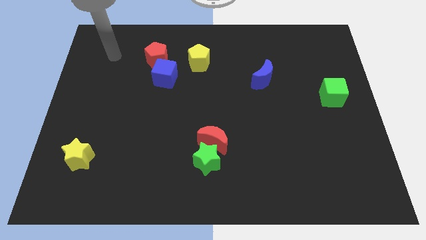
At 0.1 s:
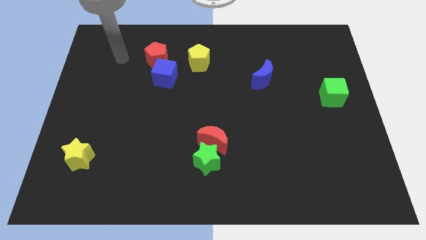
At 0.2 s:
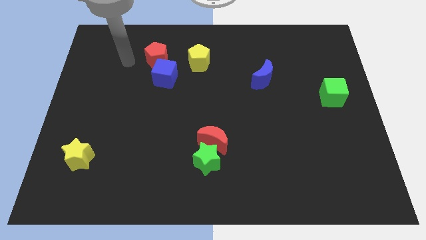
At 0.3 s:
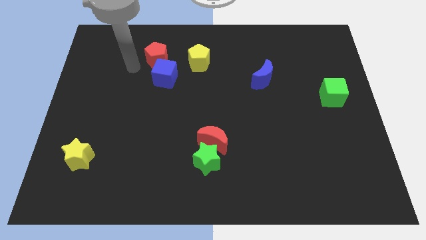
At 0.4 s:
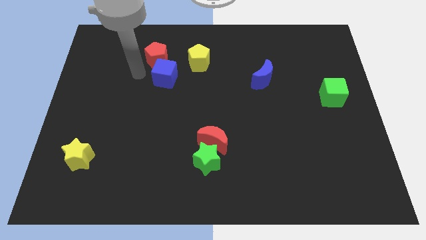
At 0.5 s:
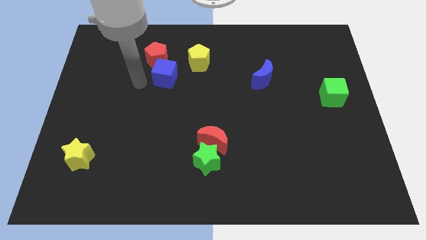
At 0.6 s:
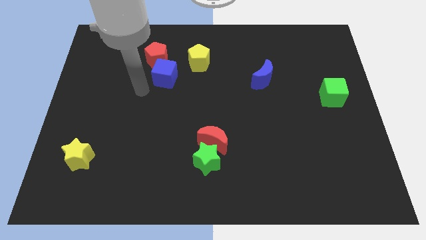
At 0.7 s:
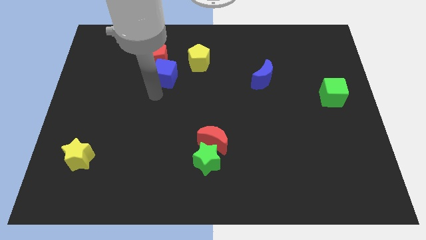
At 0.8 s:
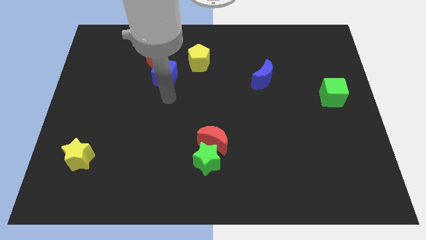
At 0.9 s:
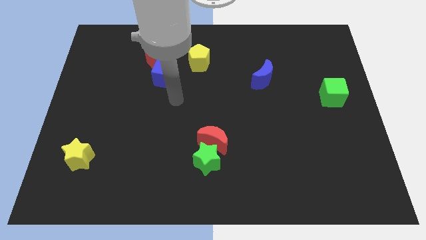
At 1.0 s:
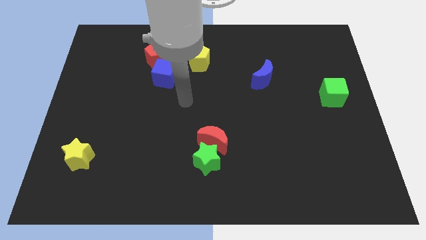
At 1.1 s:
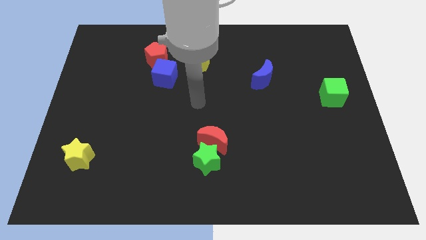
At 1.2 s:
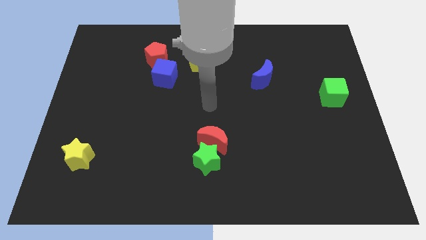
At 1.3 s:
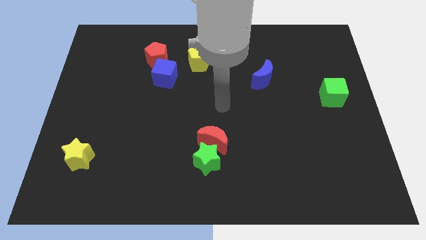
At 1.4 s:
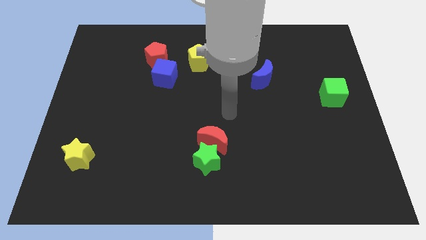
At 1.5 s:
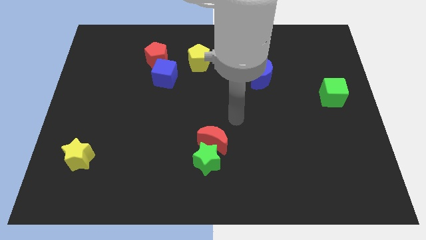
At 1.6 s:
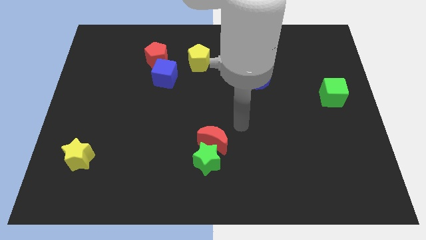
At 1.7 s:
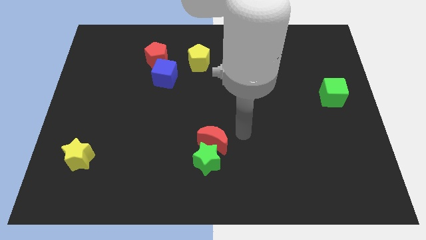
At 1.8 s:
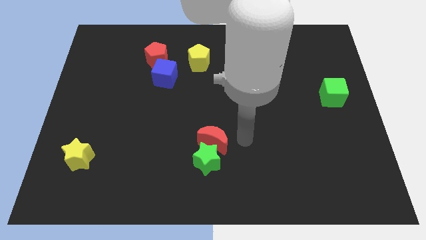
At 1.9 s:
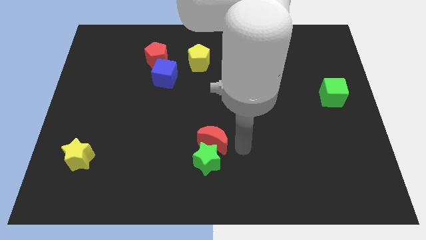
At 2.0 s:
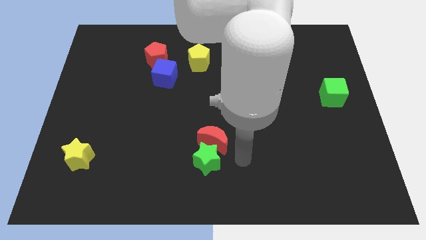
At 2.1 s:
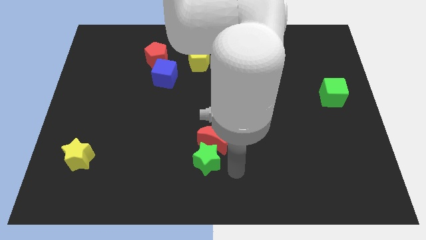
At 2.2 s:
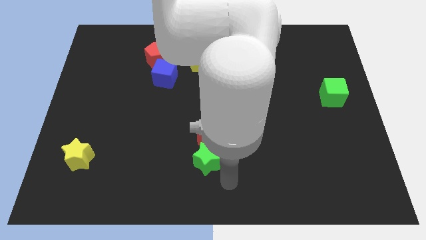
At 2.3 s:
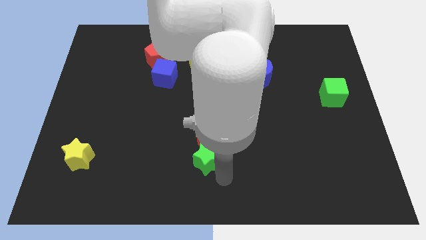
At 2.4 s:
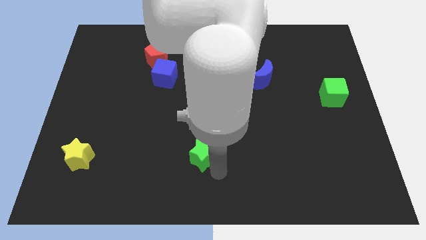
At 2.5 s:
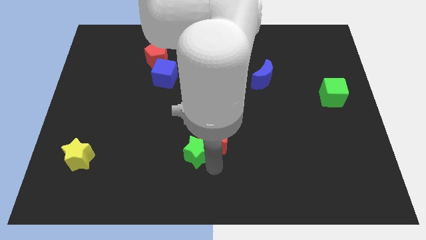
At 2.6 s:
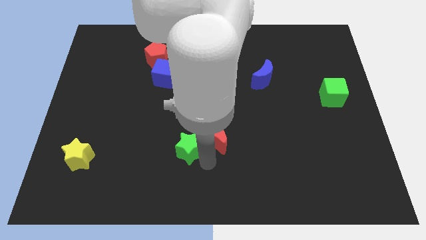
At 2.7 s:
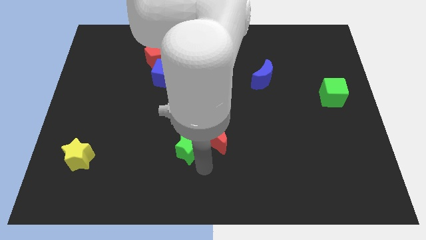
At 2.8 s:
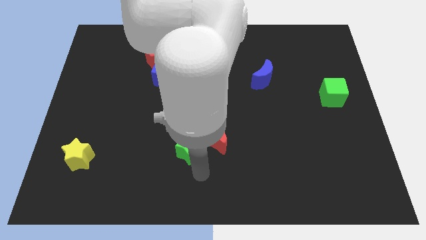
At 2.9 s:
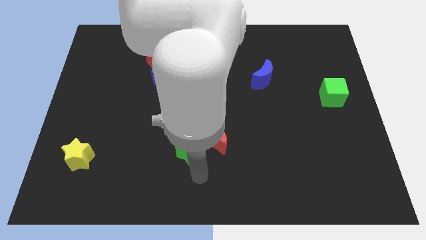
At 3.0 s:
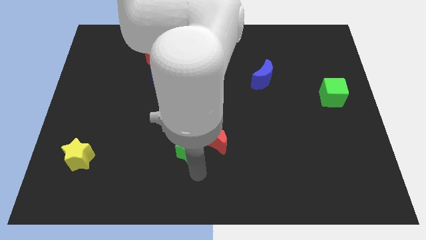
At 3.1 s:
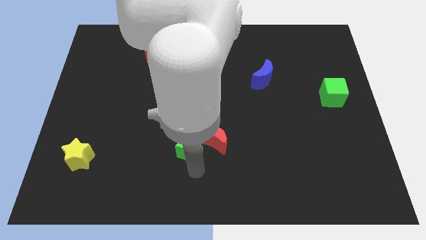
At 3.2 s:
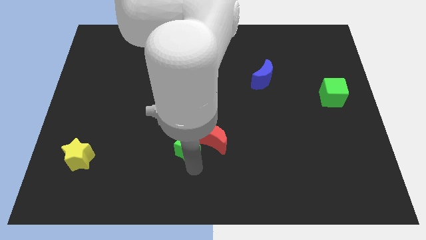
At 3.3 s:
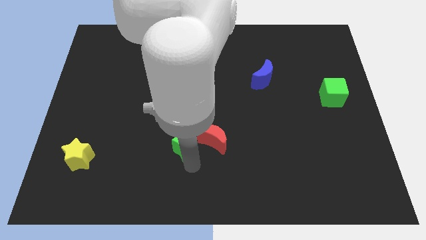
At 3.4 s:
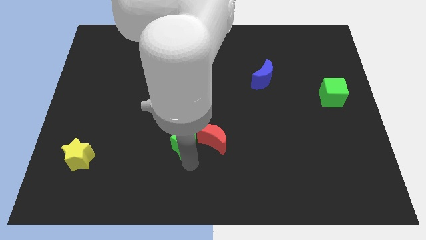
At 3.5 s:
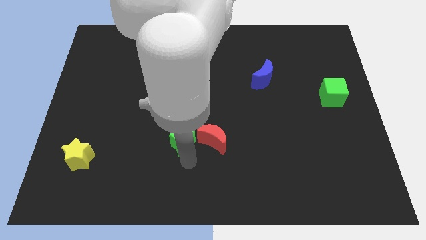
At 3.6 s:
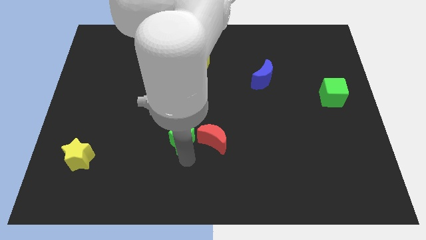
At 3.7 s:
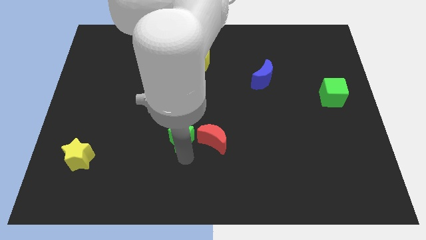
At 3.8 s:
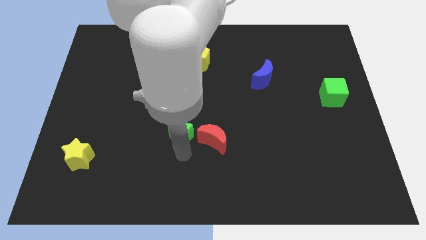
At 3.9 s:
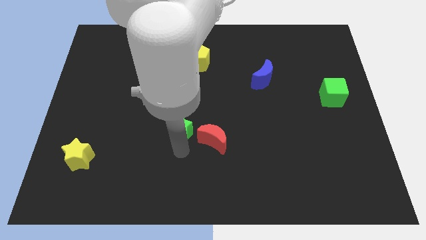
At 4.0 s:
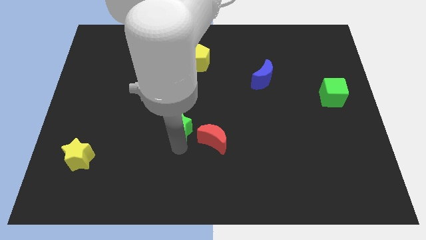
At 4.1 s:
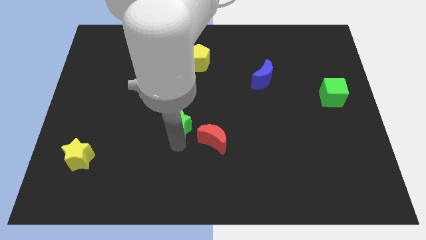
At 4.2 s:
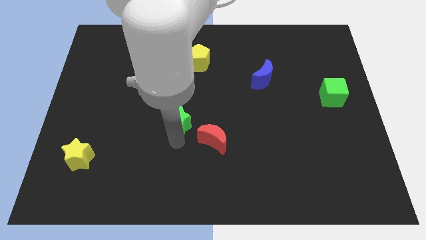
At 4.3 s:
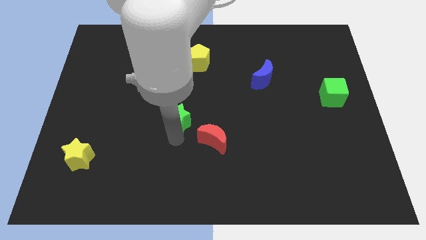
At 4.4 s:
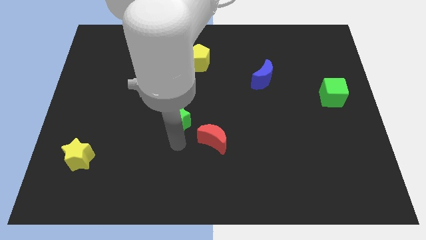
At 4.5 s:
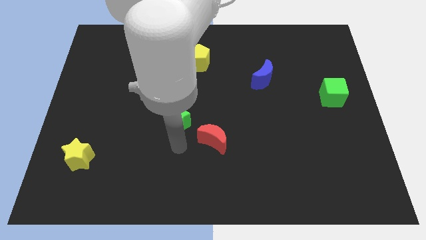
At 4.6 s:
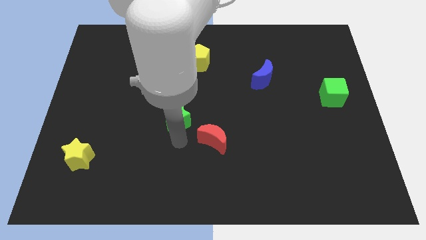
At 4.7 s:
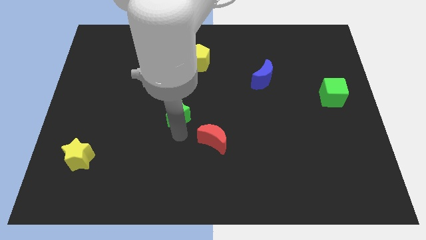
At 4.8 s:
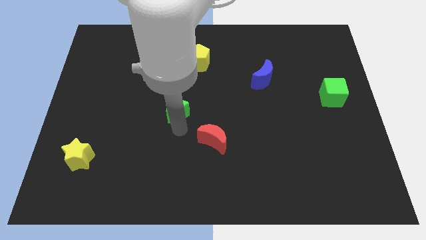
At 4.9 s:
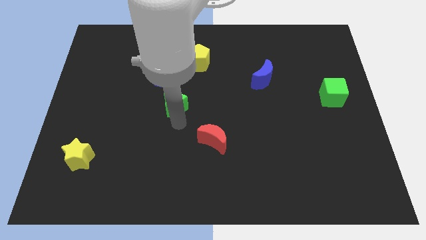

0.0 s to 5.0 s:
push the green star to the bottom right side of the blue cube

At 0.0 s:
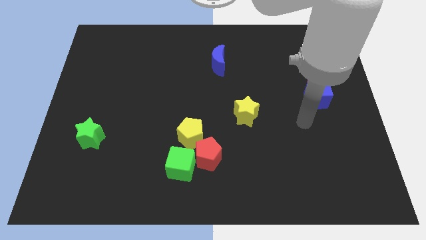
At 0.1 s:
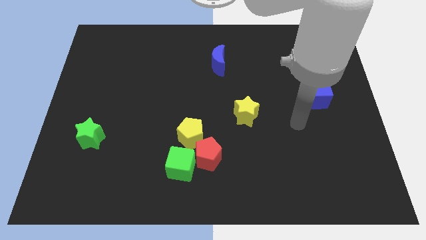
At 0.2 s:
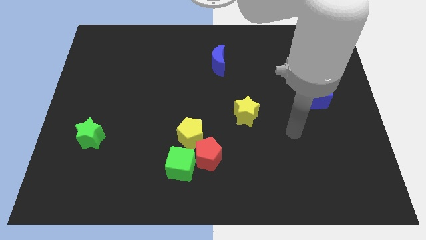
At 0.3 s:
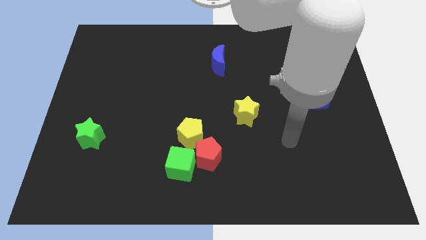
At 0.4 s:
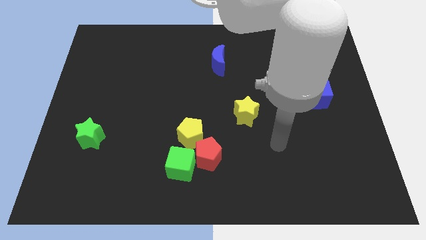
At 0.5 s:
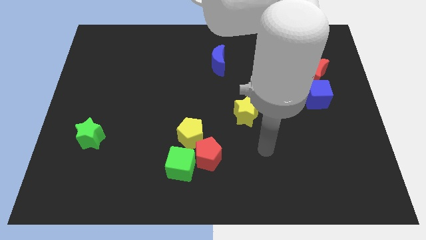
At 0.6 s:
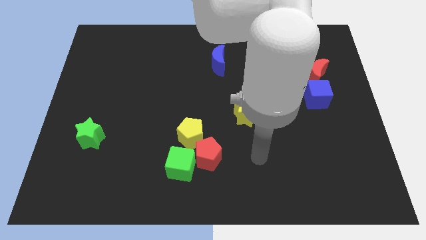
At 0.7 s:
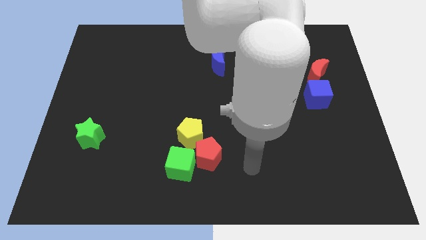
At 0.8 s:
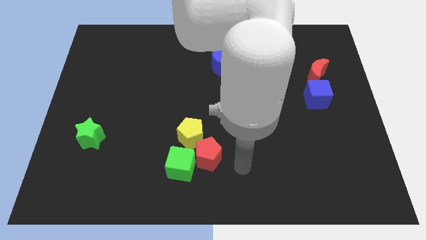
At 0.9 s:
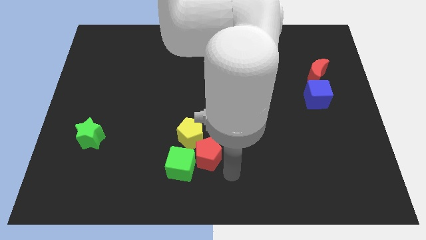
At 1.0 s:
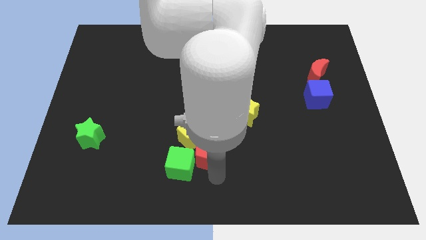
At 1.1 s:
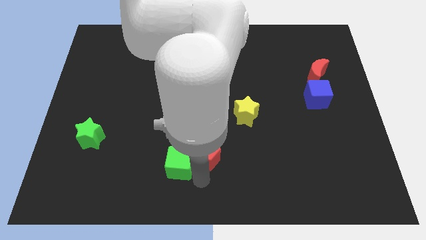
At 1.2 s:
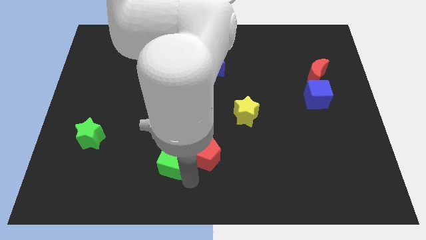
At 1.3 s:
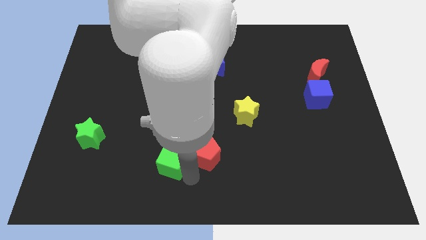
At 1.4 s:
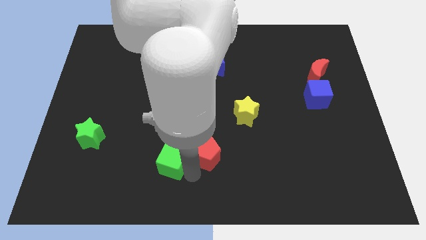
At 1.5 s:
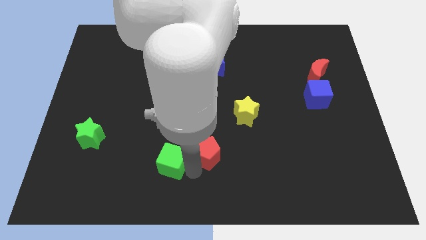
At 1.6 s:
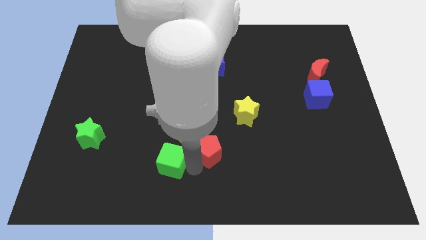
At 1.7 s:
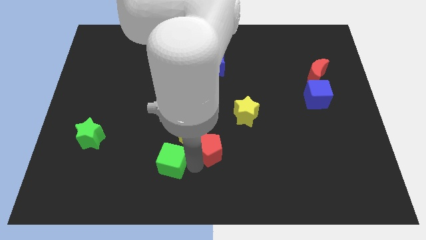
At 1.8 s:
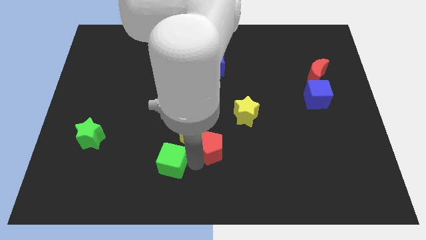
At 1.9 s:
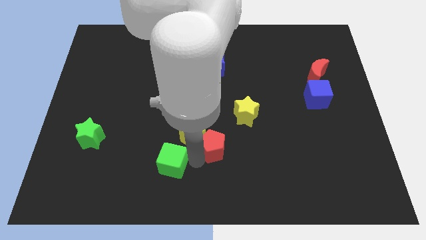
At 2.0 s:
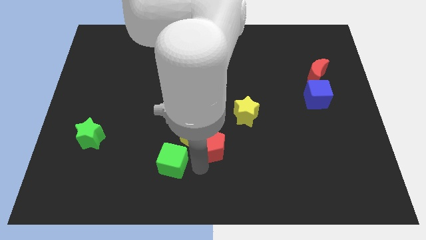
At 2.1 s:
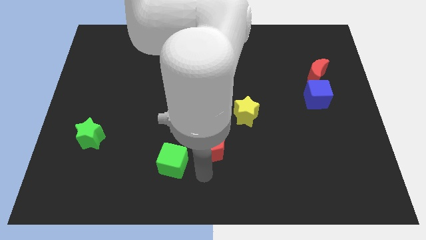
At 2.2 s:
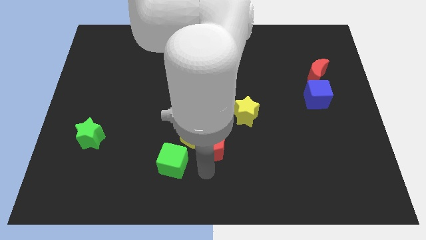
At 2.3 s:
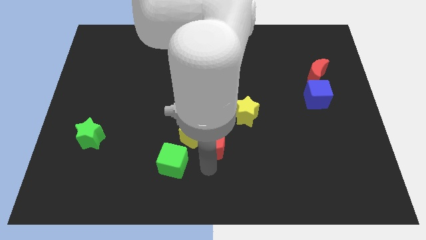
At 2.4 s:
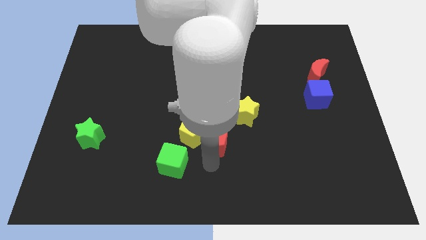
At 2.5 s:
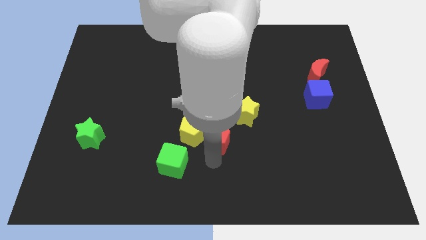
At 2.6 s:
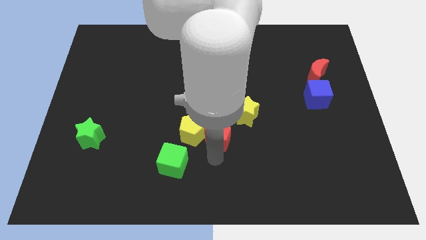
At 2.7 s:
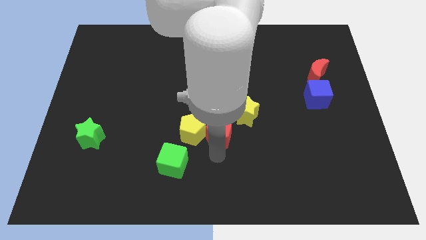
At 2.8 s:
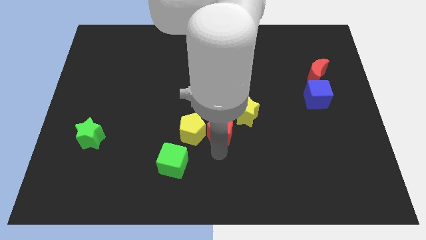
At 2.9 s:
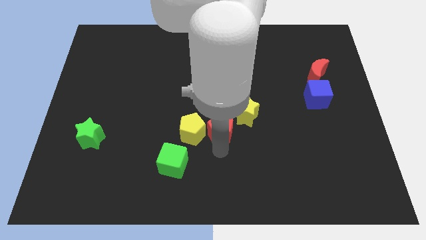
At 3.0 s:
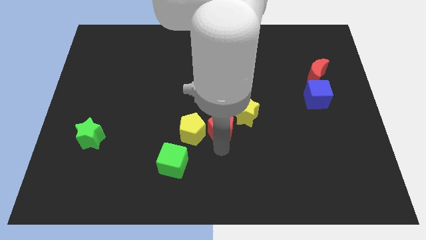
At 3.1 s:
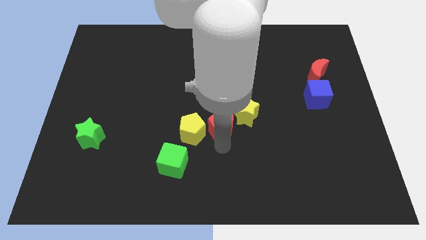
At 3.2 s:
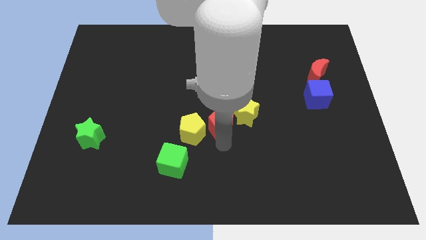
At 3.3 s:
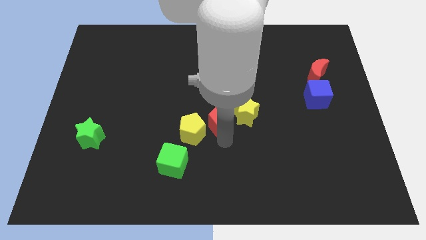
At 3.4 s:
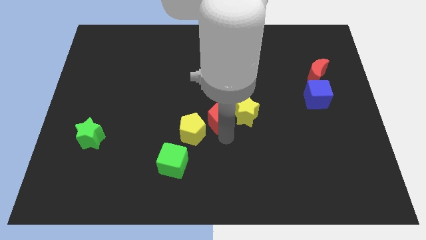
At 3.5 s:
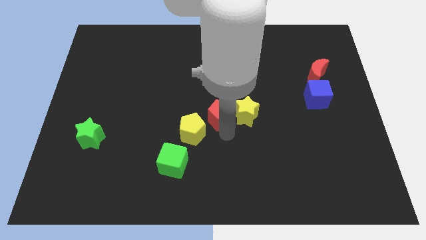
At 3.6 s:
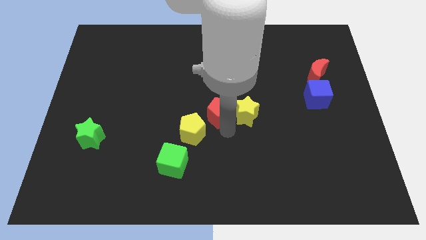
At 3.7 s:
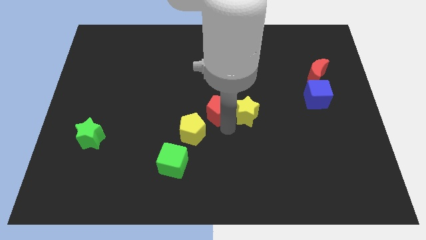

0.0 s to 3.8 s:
push the red pentagon to the bottom side of the blue moon
